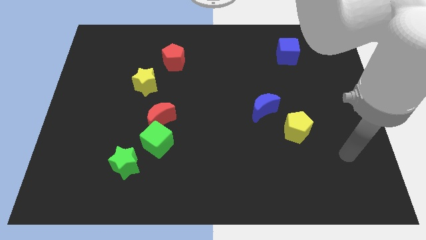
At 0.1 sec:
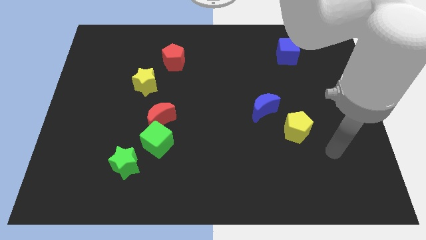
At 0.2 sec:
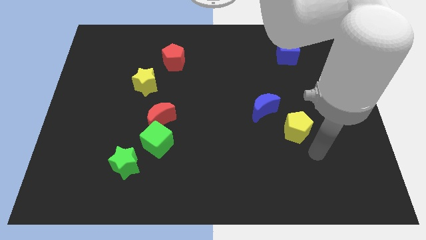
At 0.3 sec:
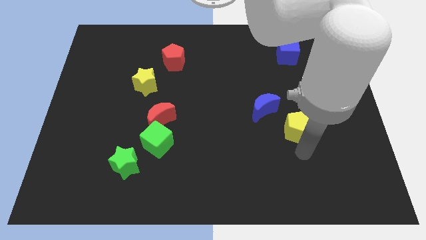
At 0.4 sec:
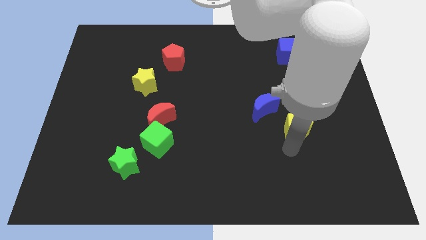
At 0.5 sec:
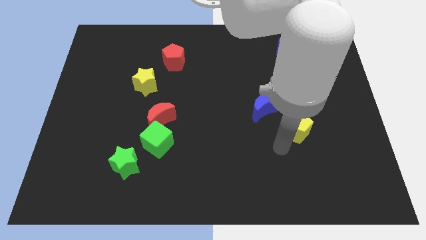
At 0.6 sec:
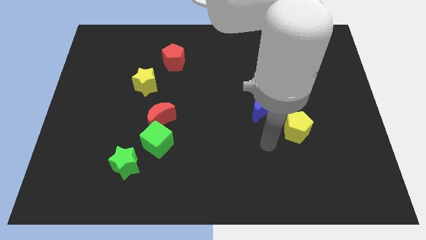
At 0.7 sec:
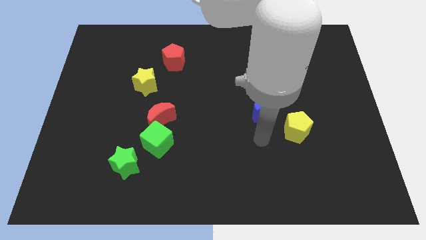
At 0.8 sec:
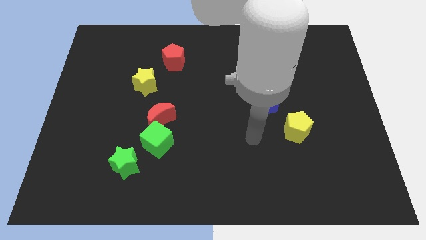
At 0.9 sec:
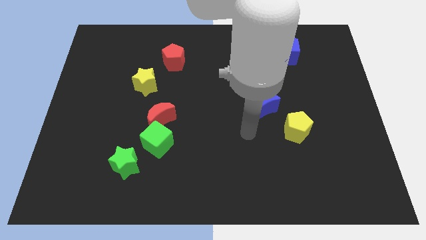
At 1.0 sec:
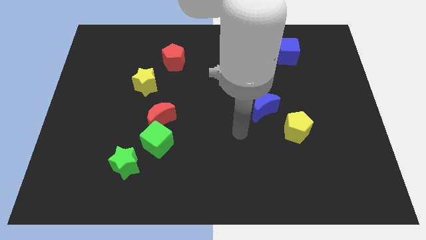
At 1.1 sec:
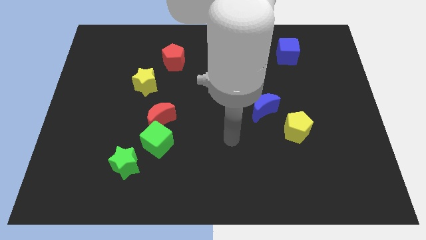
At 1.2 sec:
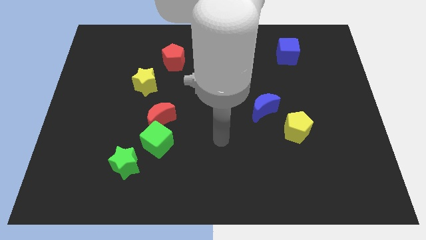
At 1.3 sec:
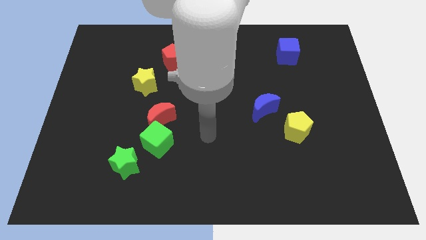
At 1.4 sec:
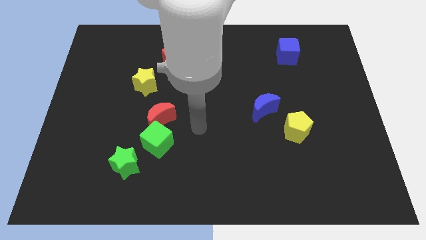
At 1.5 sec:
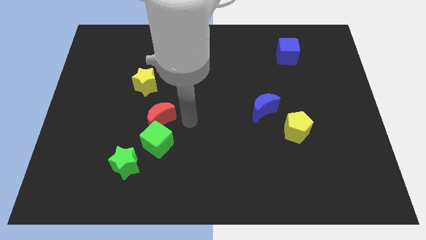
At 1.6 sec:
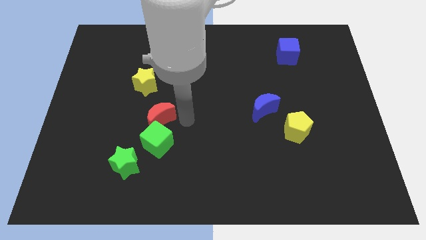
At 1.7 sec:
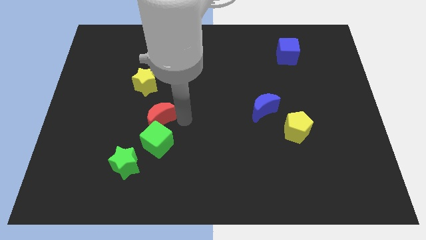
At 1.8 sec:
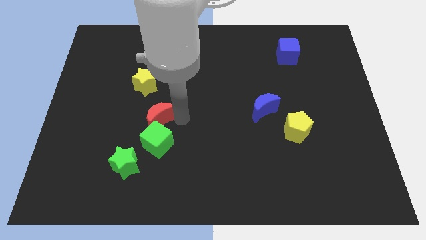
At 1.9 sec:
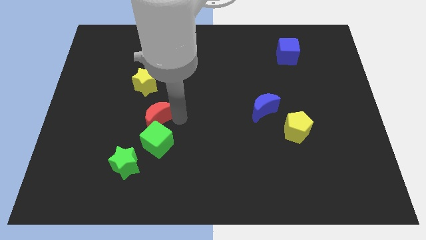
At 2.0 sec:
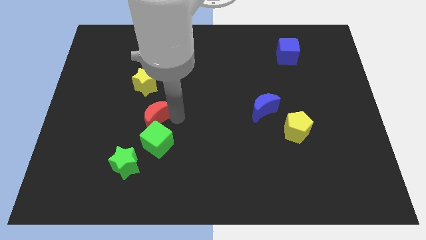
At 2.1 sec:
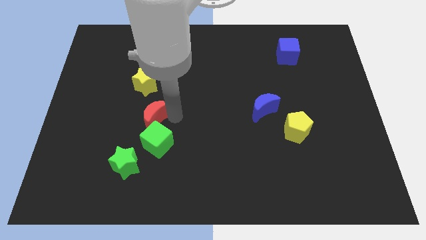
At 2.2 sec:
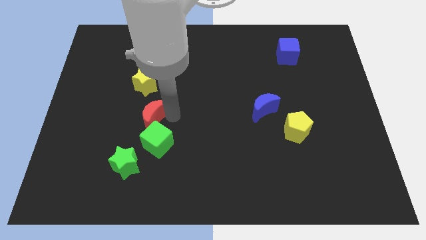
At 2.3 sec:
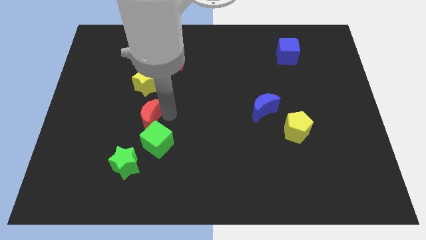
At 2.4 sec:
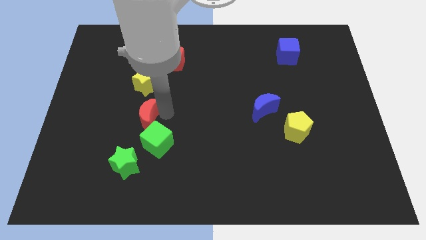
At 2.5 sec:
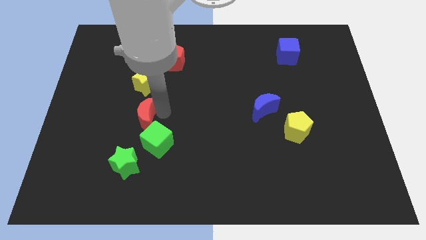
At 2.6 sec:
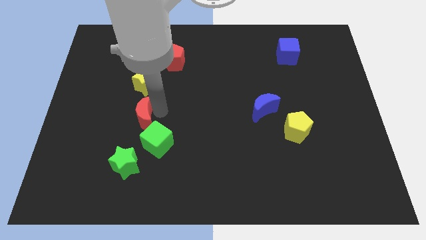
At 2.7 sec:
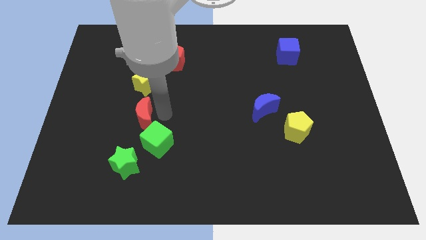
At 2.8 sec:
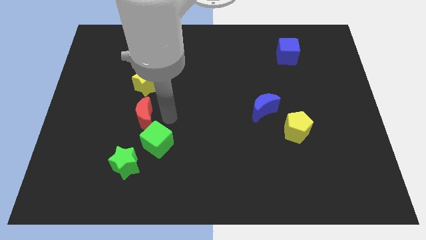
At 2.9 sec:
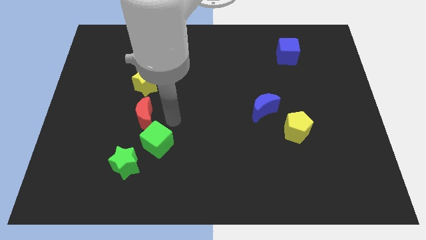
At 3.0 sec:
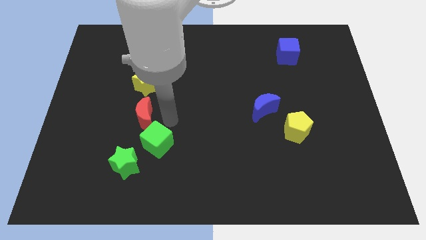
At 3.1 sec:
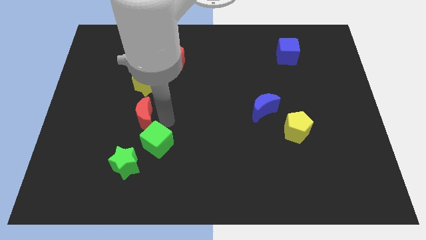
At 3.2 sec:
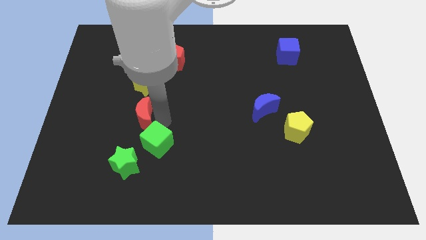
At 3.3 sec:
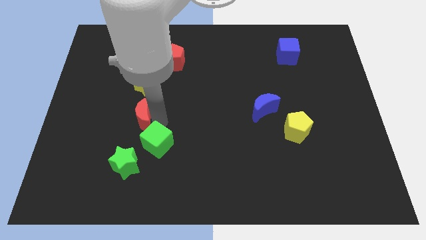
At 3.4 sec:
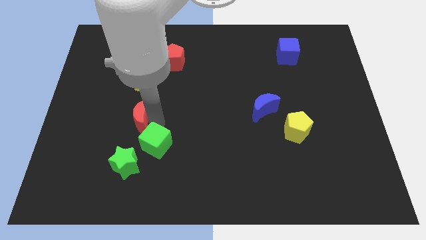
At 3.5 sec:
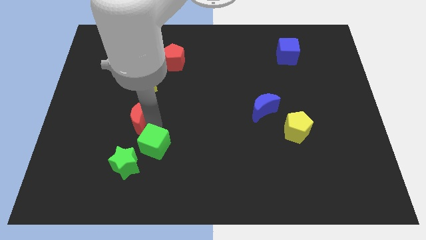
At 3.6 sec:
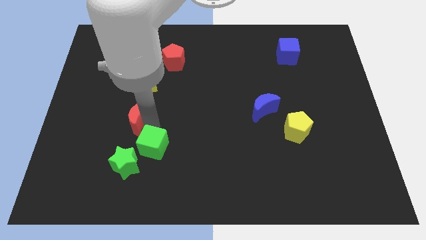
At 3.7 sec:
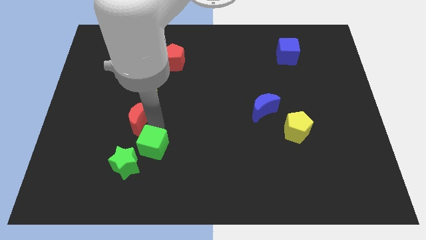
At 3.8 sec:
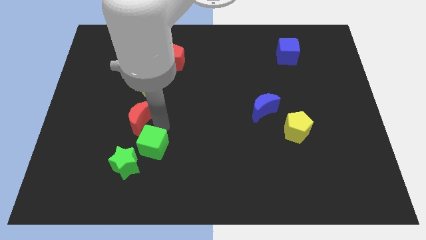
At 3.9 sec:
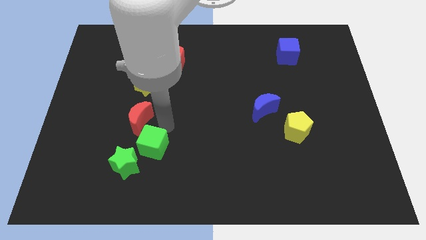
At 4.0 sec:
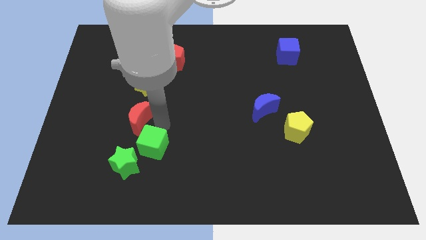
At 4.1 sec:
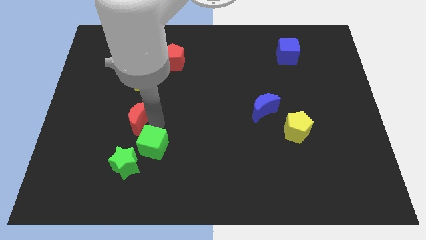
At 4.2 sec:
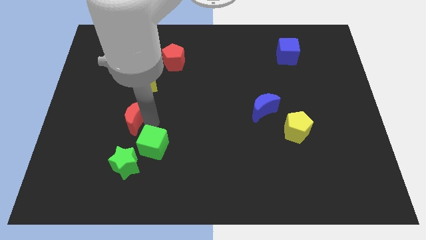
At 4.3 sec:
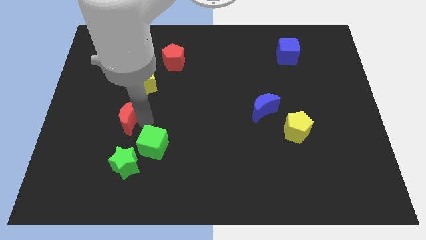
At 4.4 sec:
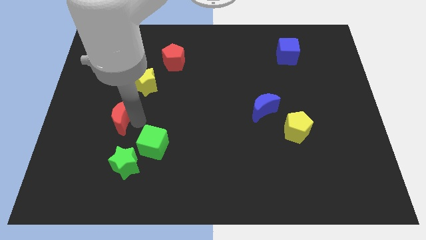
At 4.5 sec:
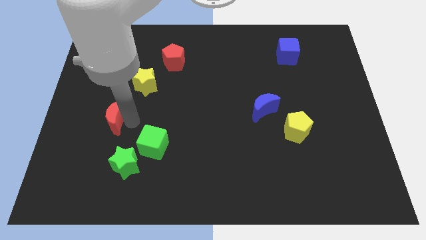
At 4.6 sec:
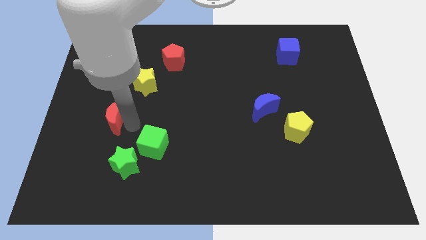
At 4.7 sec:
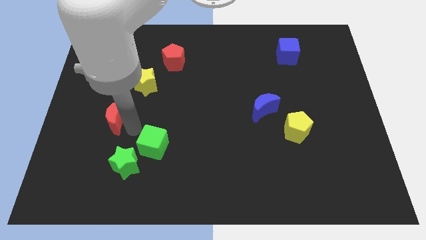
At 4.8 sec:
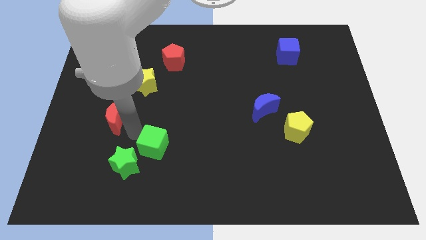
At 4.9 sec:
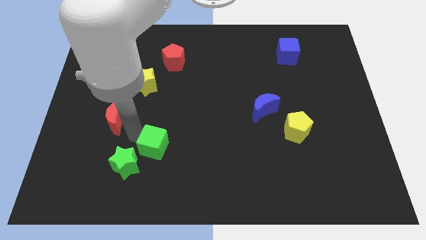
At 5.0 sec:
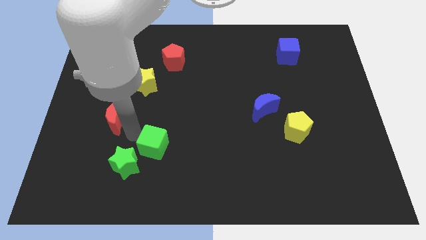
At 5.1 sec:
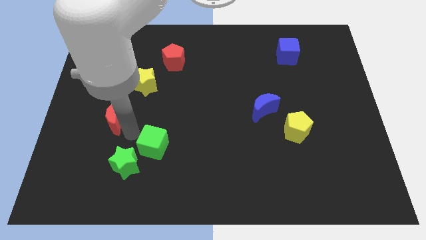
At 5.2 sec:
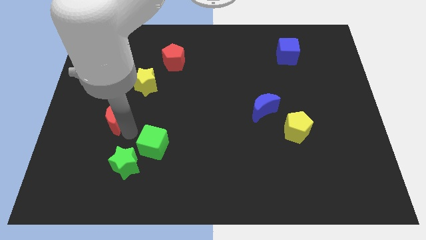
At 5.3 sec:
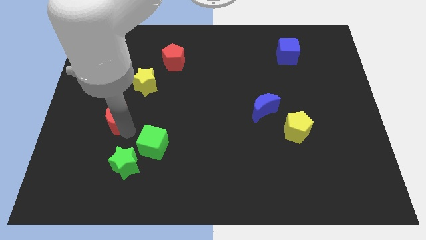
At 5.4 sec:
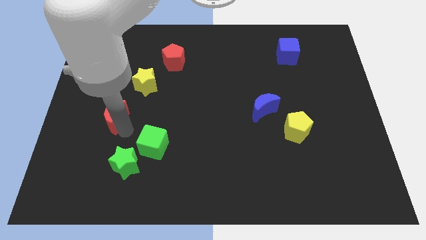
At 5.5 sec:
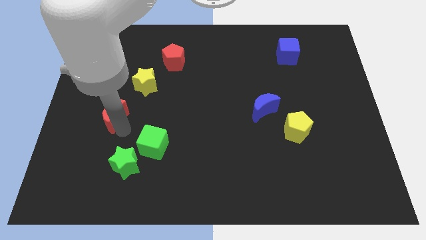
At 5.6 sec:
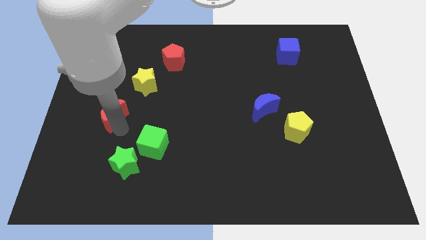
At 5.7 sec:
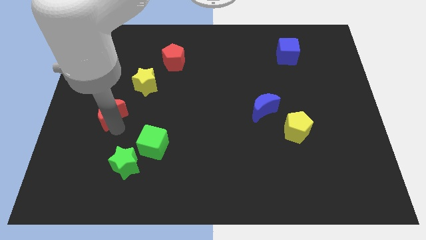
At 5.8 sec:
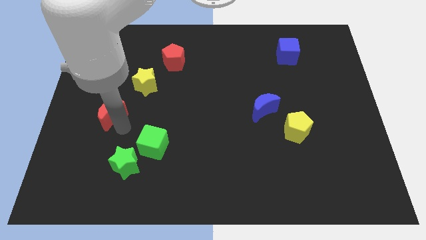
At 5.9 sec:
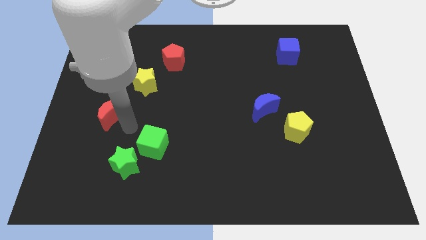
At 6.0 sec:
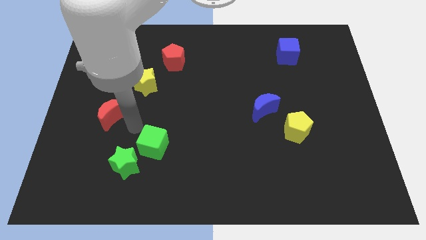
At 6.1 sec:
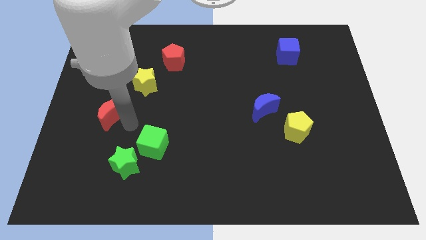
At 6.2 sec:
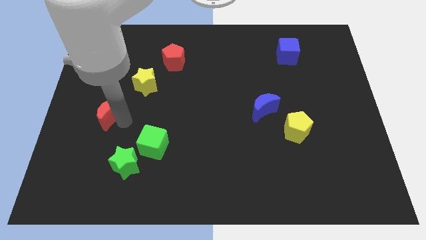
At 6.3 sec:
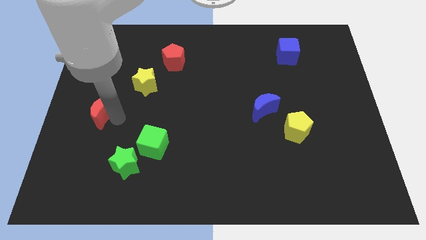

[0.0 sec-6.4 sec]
slide the red moon to the left side
